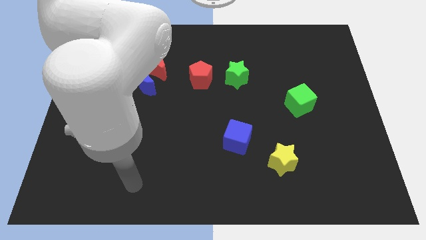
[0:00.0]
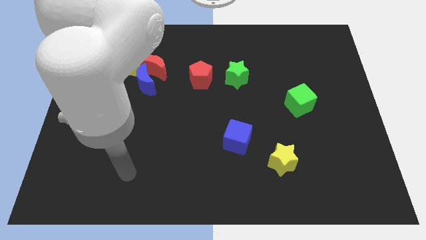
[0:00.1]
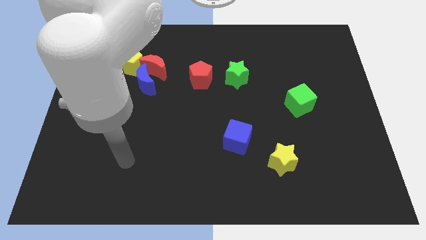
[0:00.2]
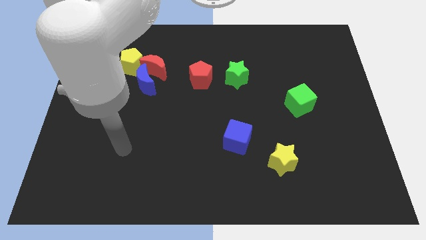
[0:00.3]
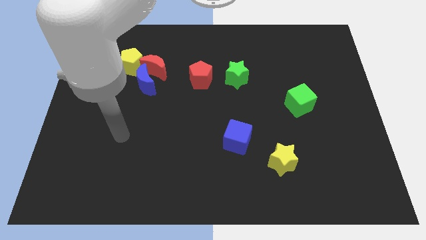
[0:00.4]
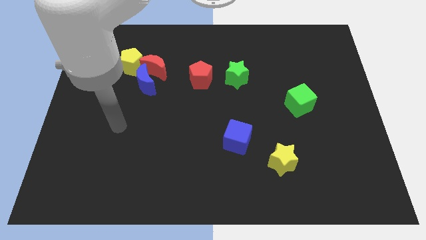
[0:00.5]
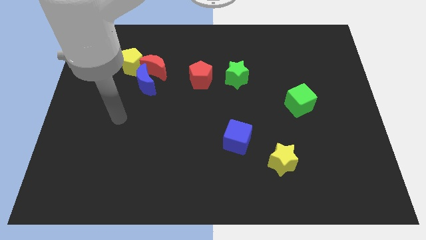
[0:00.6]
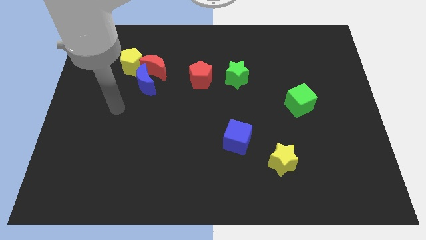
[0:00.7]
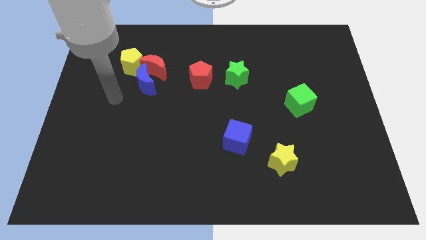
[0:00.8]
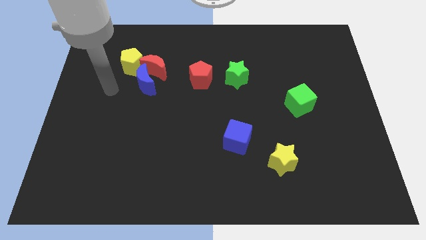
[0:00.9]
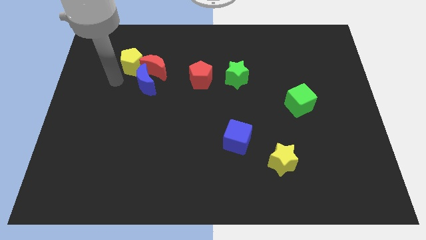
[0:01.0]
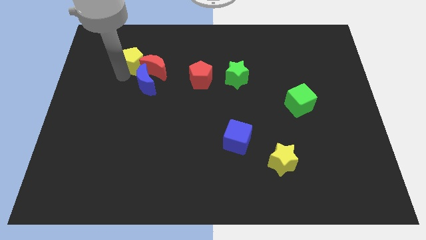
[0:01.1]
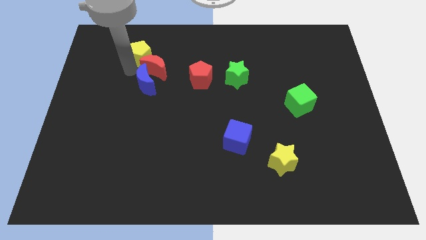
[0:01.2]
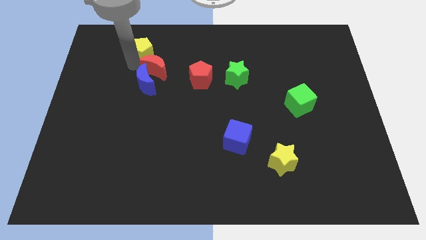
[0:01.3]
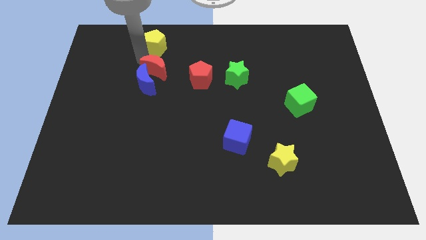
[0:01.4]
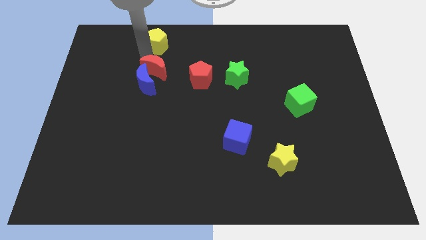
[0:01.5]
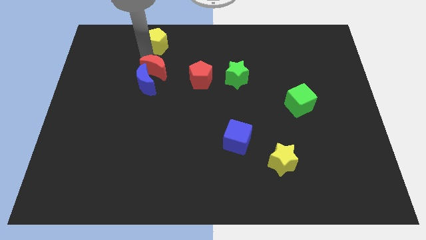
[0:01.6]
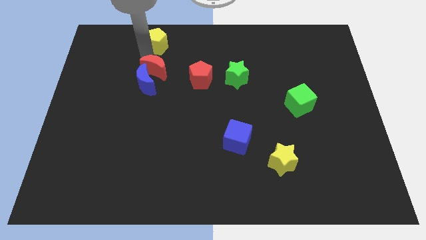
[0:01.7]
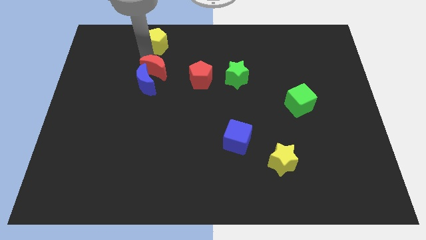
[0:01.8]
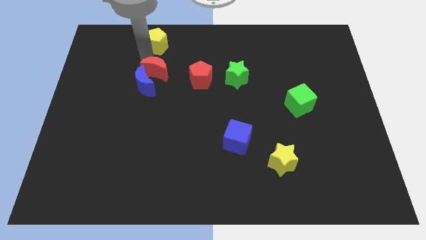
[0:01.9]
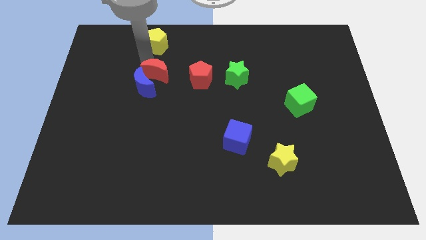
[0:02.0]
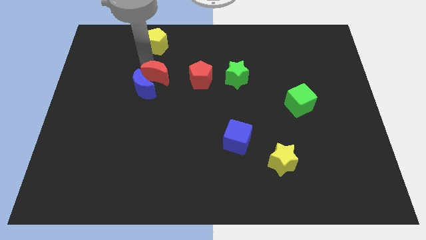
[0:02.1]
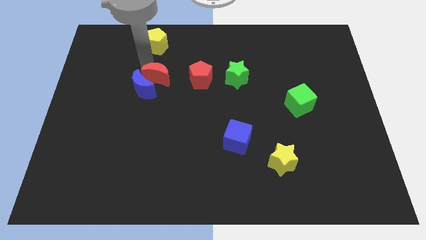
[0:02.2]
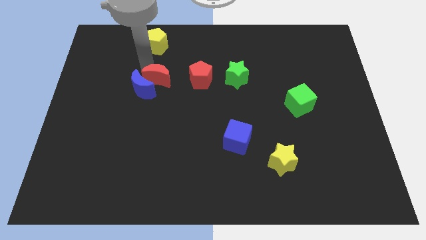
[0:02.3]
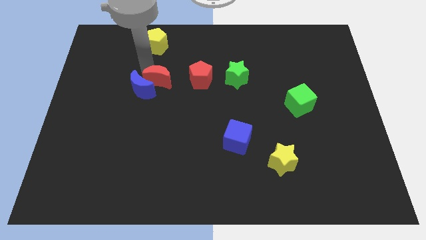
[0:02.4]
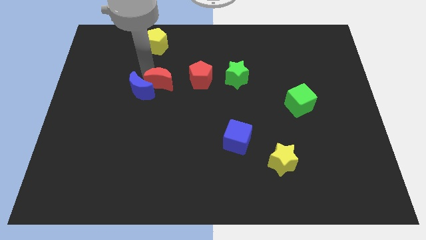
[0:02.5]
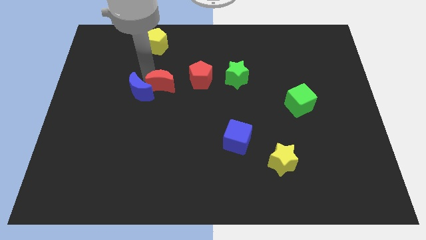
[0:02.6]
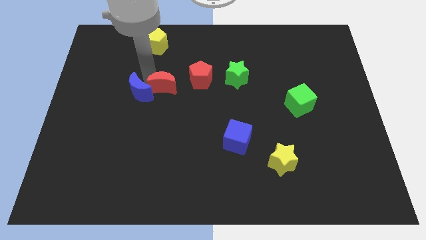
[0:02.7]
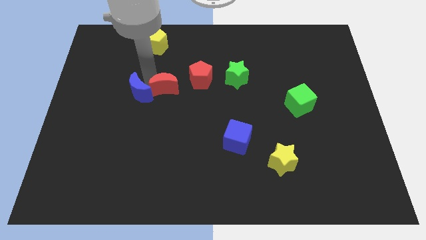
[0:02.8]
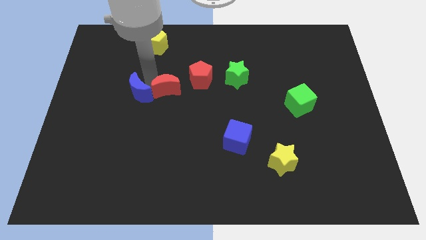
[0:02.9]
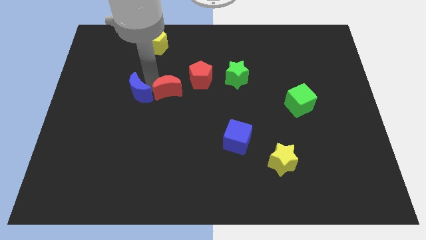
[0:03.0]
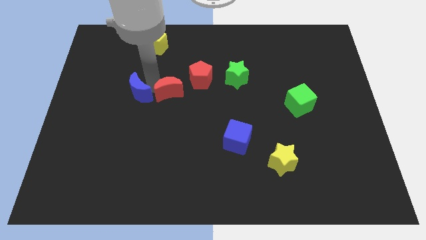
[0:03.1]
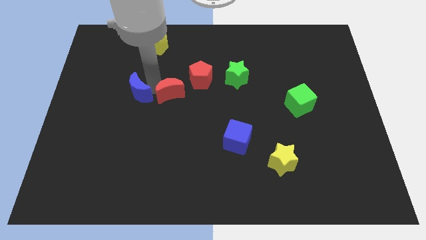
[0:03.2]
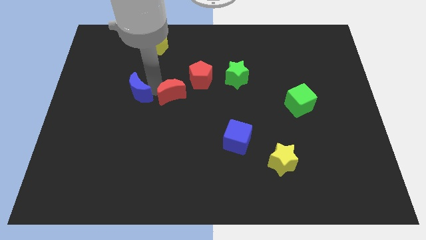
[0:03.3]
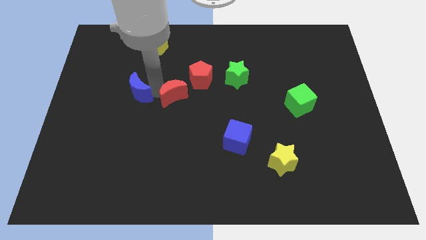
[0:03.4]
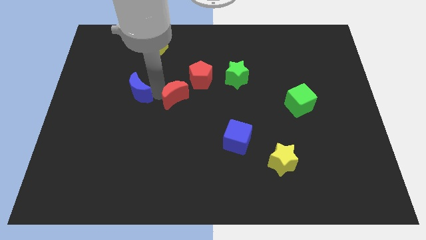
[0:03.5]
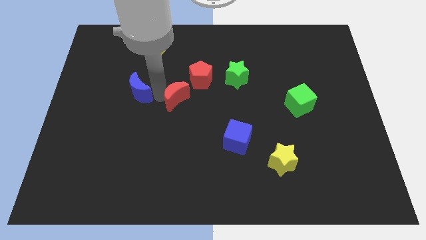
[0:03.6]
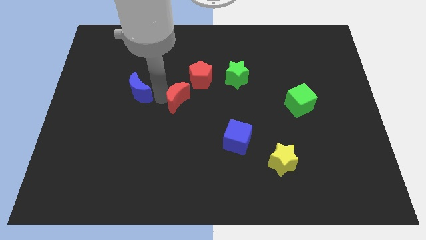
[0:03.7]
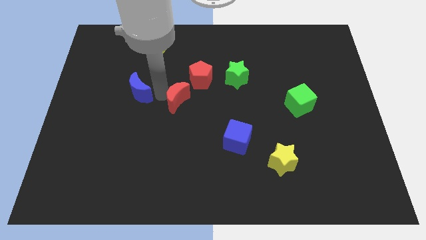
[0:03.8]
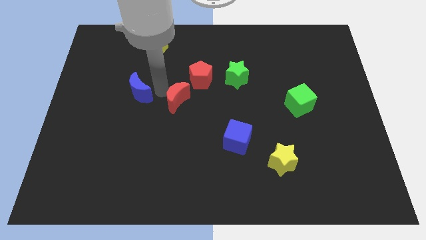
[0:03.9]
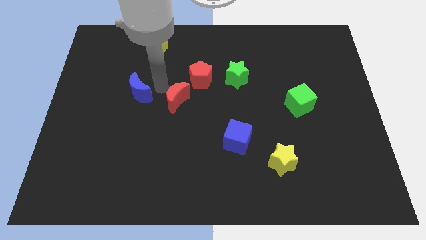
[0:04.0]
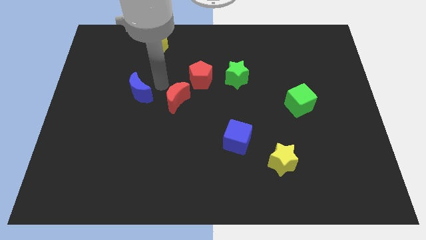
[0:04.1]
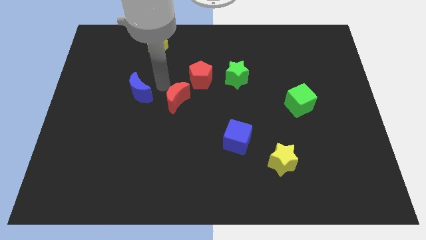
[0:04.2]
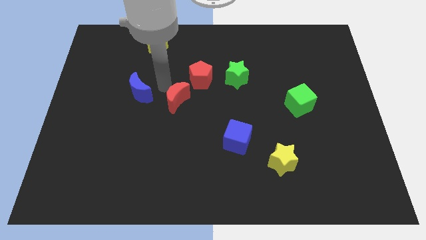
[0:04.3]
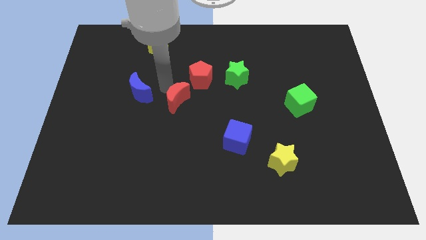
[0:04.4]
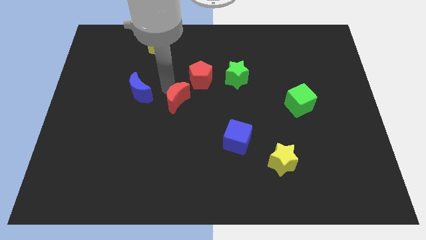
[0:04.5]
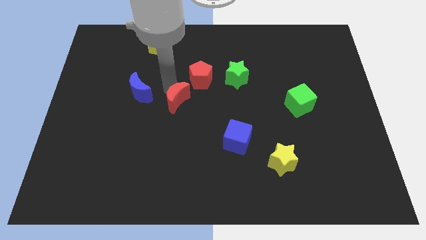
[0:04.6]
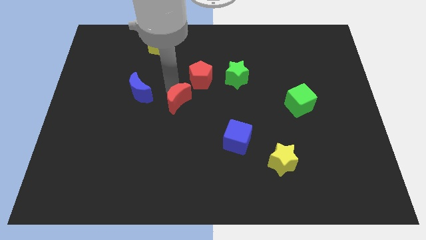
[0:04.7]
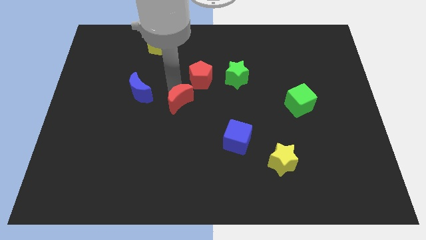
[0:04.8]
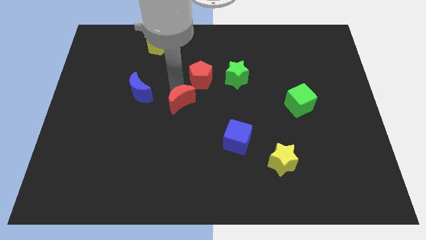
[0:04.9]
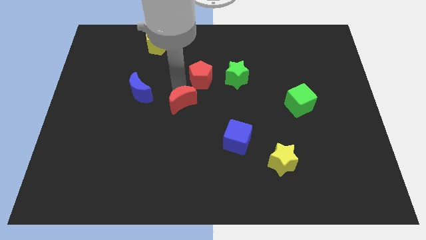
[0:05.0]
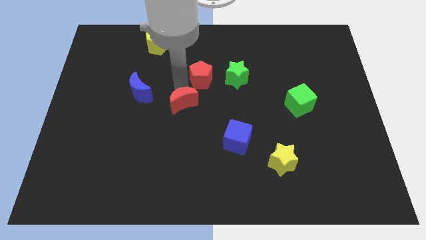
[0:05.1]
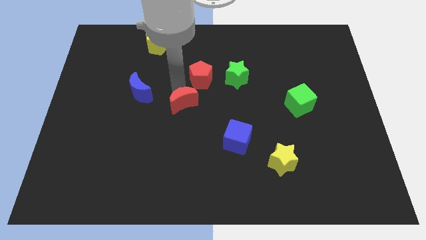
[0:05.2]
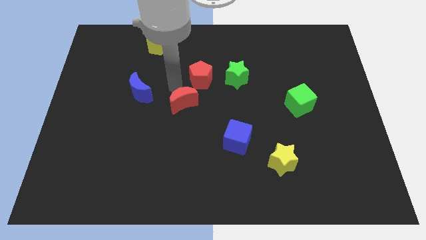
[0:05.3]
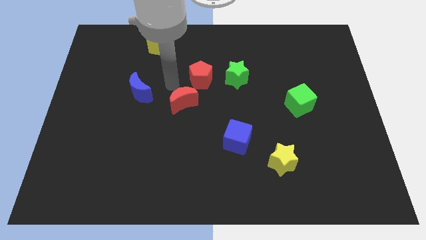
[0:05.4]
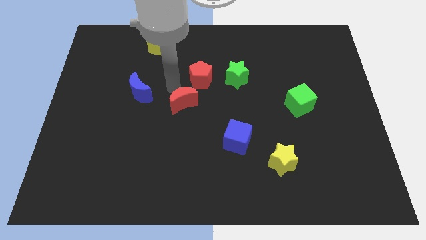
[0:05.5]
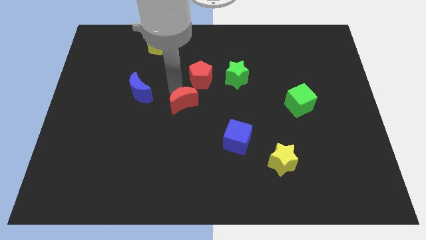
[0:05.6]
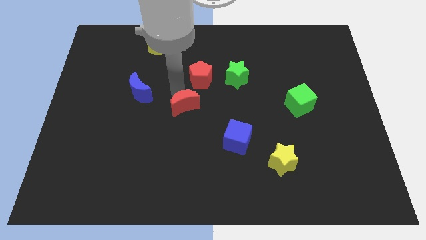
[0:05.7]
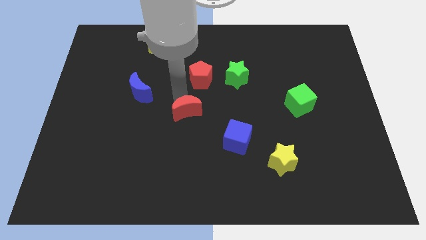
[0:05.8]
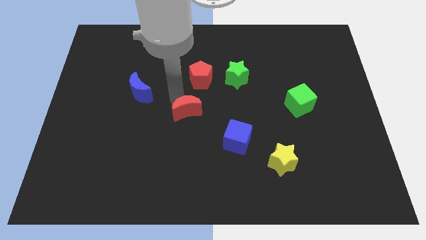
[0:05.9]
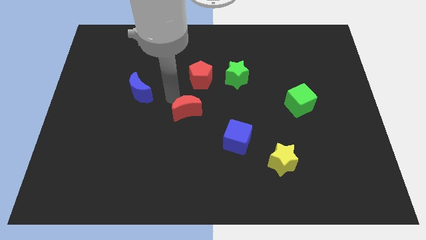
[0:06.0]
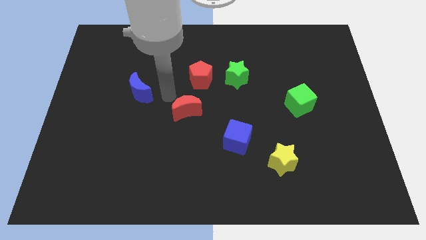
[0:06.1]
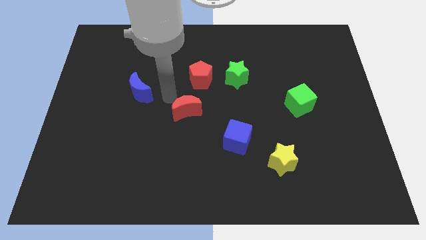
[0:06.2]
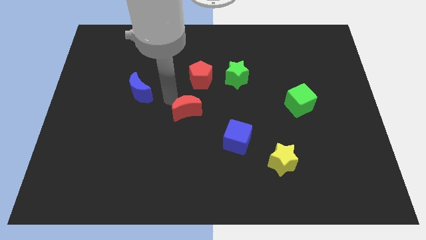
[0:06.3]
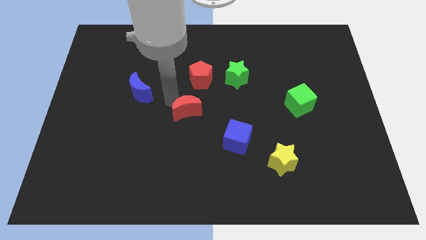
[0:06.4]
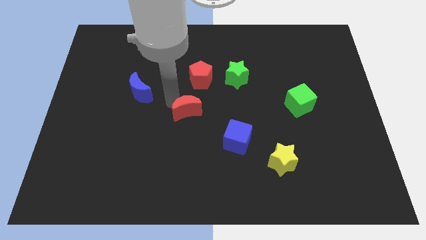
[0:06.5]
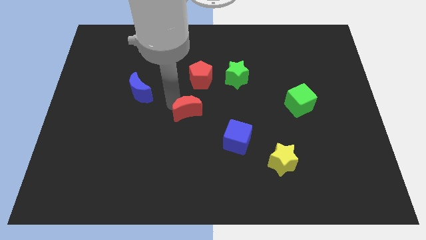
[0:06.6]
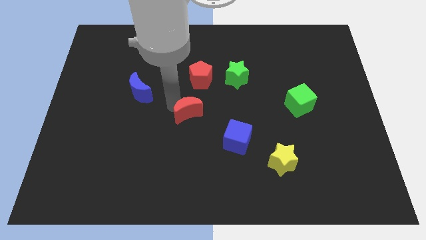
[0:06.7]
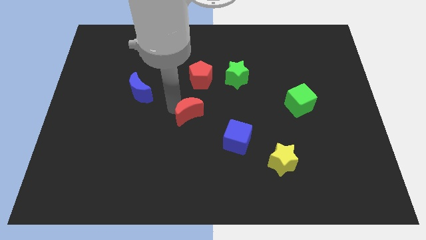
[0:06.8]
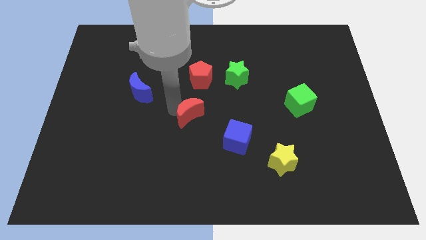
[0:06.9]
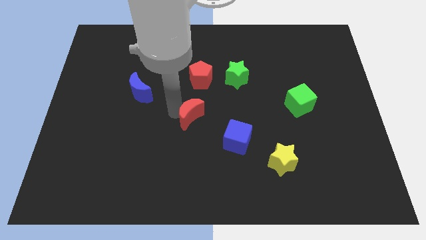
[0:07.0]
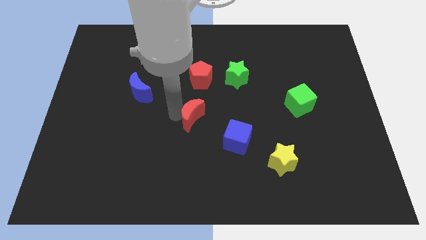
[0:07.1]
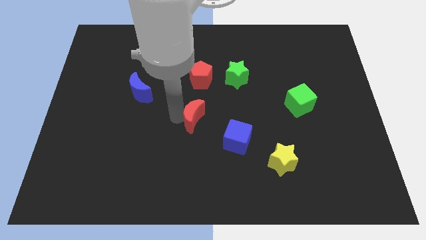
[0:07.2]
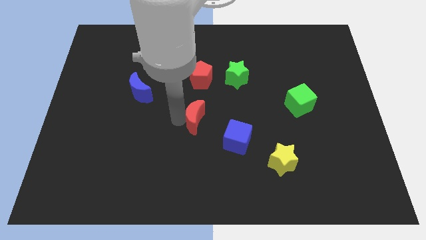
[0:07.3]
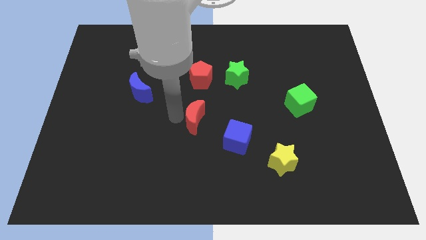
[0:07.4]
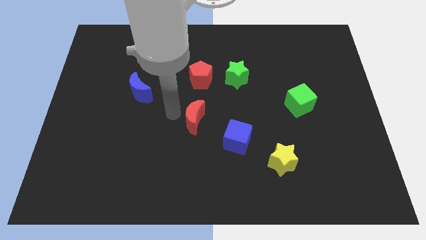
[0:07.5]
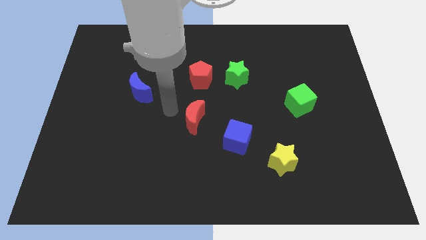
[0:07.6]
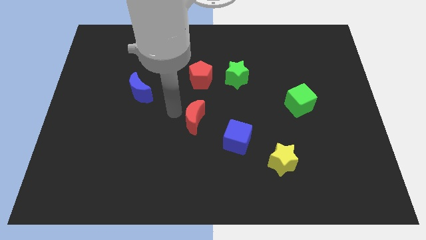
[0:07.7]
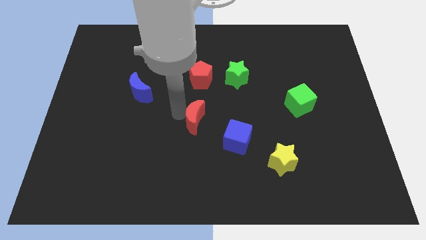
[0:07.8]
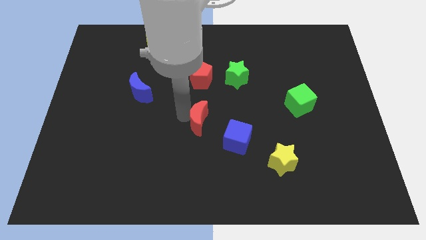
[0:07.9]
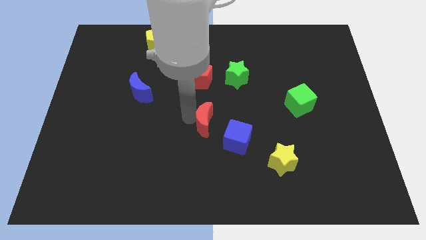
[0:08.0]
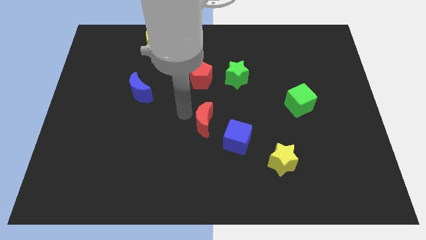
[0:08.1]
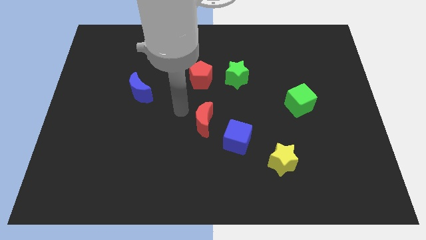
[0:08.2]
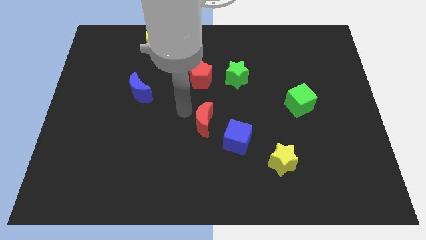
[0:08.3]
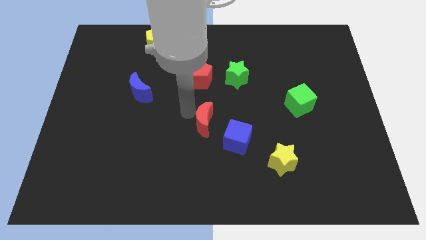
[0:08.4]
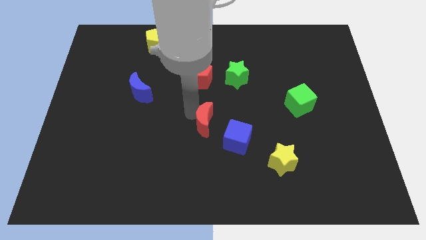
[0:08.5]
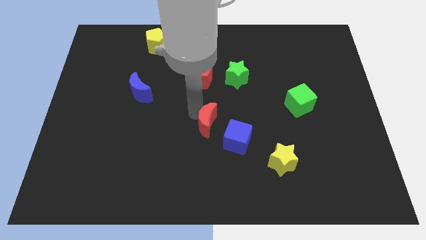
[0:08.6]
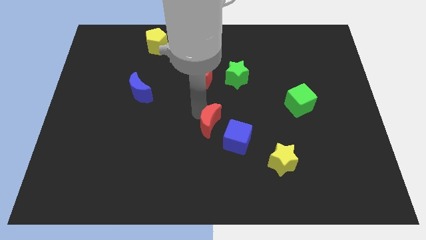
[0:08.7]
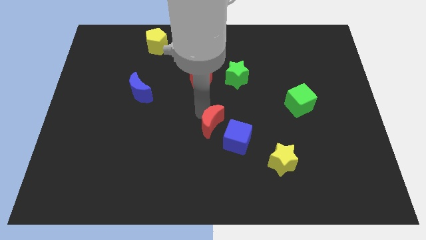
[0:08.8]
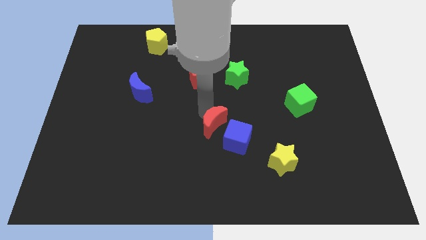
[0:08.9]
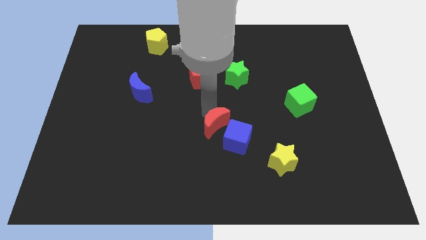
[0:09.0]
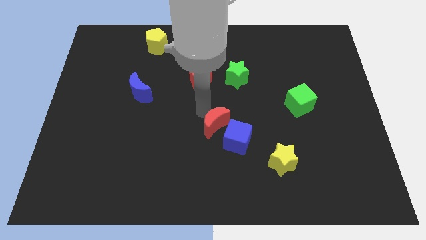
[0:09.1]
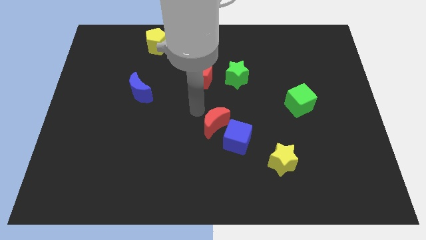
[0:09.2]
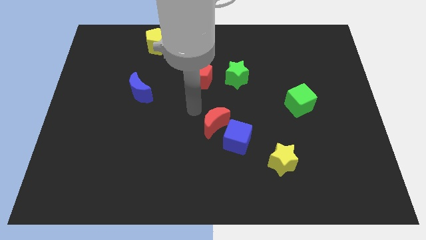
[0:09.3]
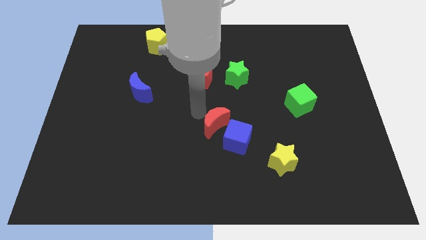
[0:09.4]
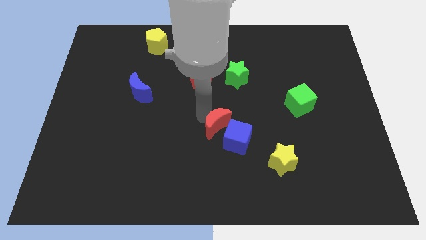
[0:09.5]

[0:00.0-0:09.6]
move the red moon close to the blue cube
